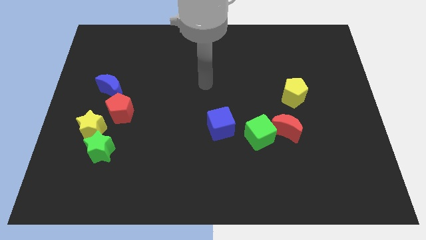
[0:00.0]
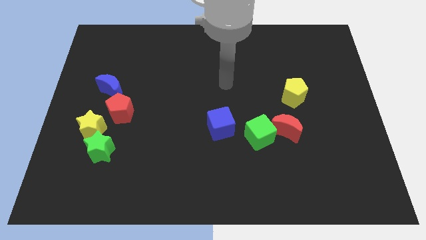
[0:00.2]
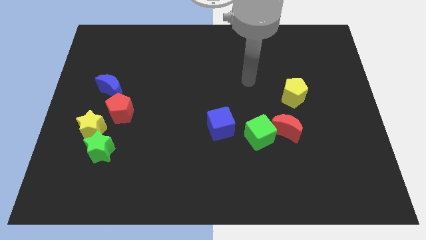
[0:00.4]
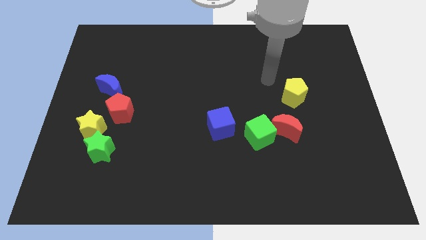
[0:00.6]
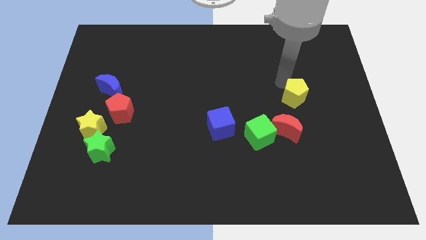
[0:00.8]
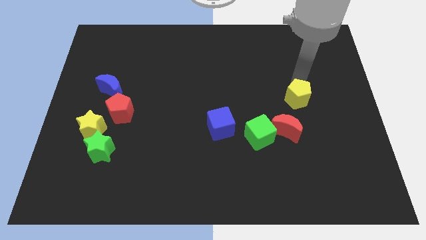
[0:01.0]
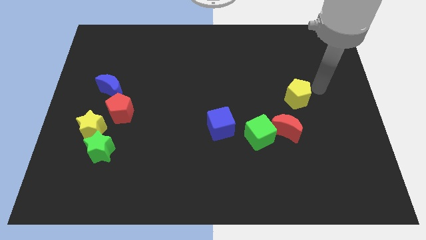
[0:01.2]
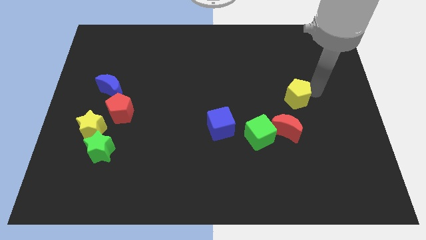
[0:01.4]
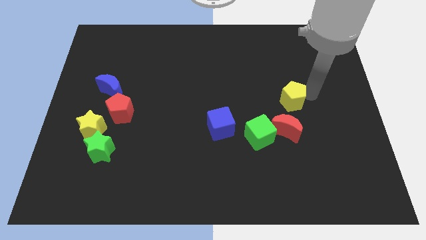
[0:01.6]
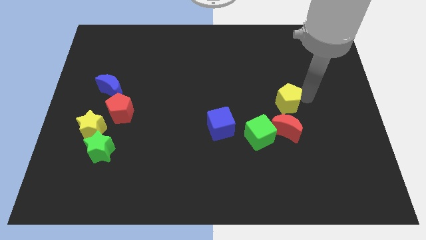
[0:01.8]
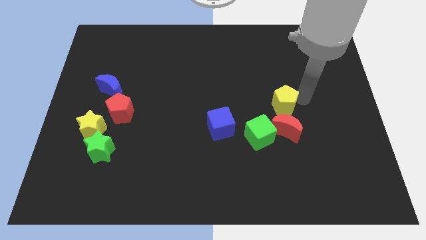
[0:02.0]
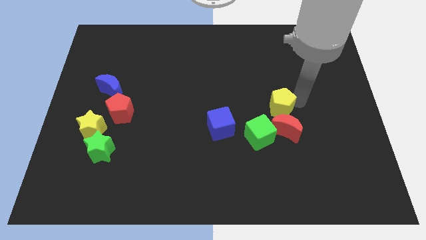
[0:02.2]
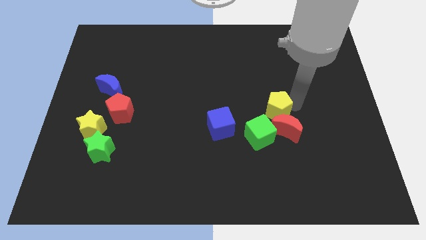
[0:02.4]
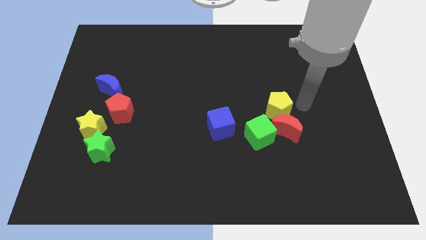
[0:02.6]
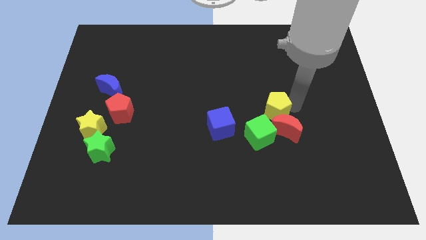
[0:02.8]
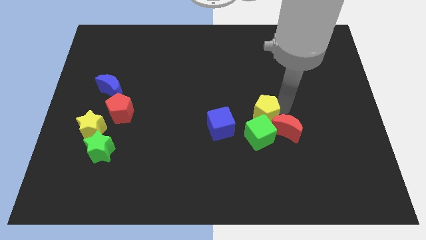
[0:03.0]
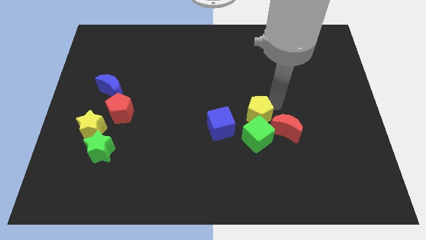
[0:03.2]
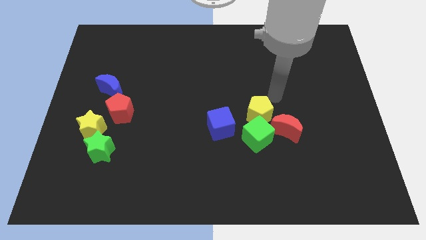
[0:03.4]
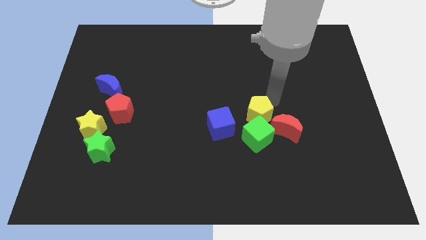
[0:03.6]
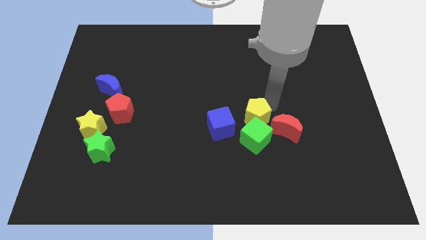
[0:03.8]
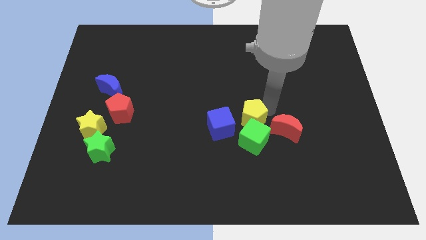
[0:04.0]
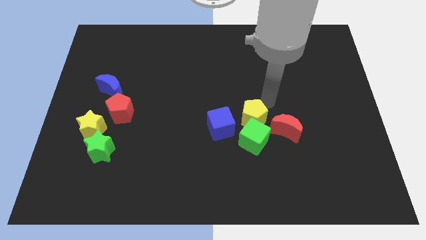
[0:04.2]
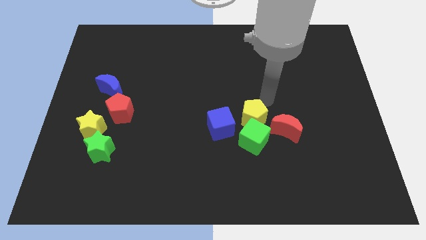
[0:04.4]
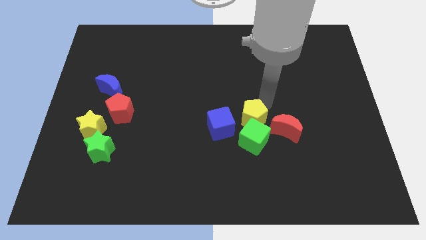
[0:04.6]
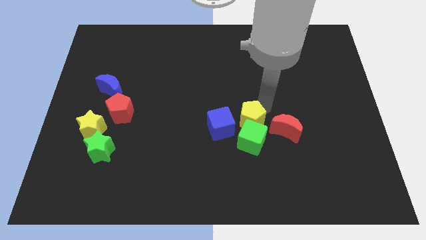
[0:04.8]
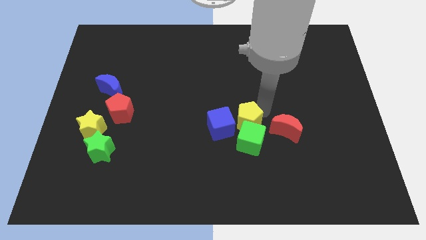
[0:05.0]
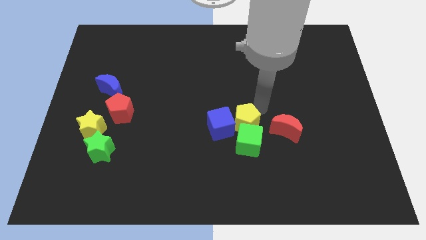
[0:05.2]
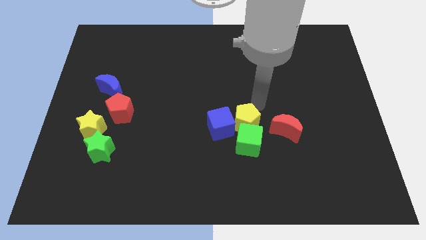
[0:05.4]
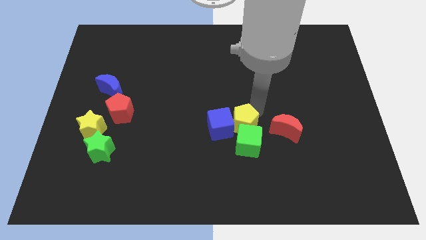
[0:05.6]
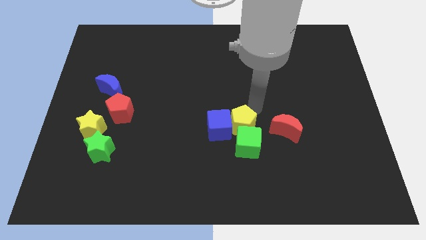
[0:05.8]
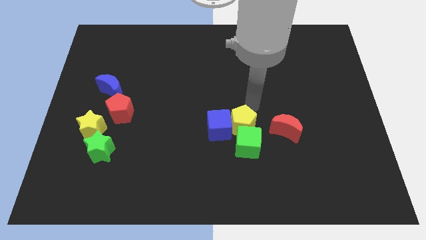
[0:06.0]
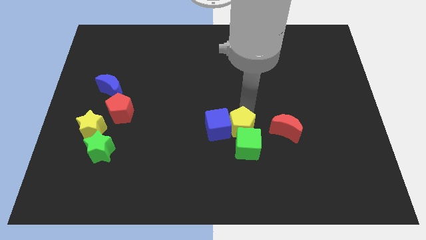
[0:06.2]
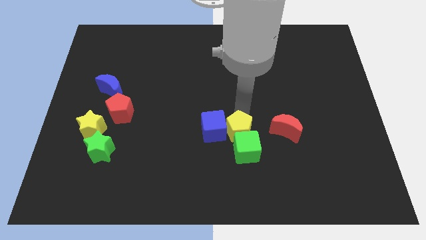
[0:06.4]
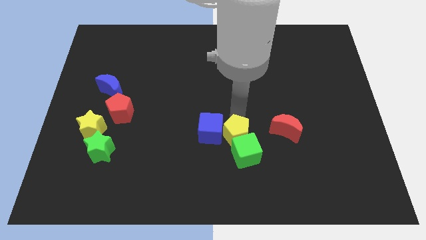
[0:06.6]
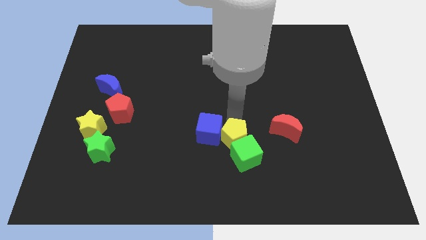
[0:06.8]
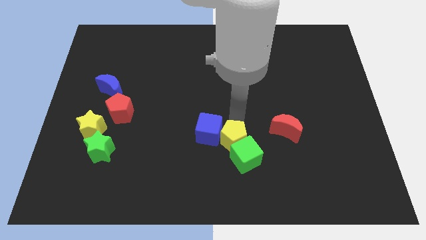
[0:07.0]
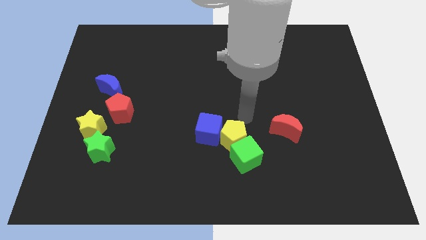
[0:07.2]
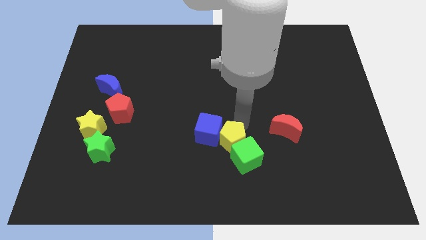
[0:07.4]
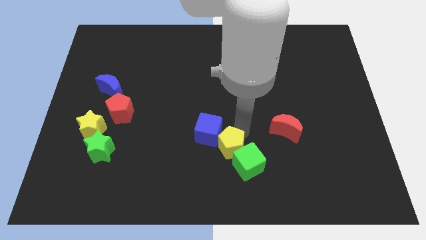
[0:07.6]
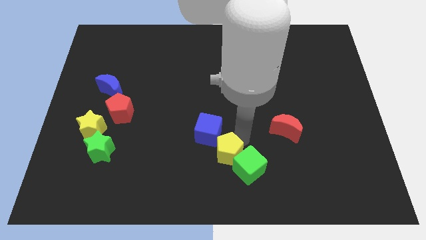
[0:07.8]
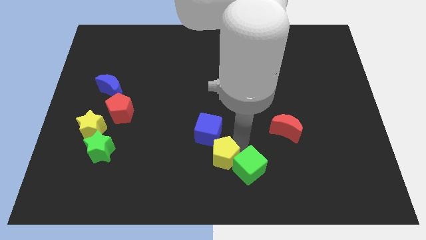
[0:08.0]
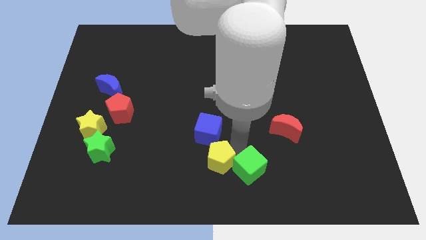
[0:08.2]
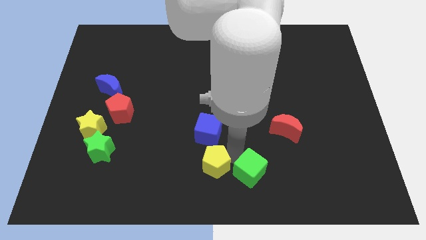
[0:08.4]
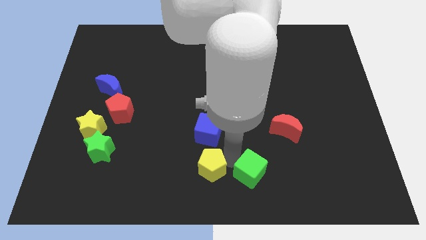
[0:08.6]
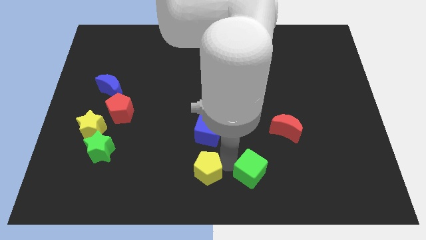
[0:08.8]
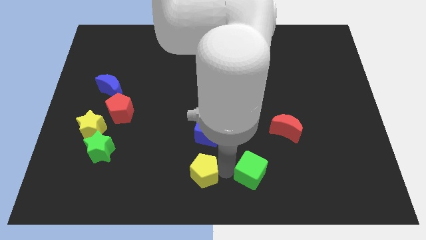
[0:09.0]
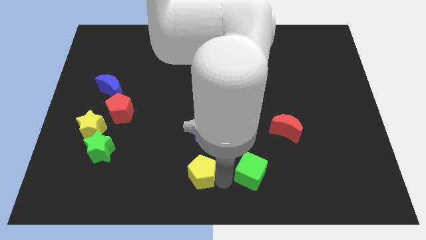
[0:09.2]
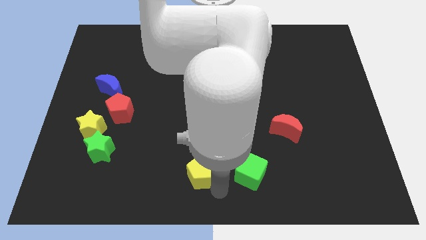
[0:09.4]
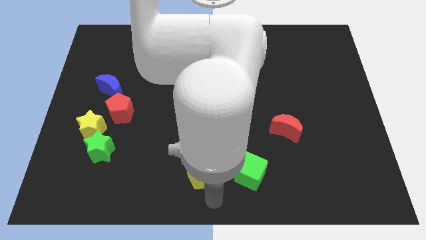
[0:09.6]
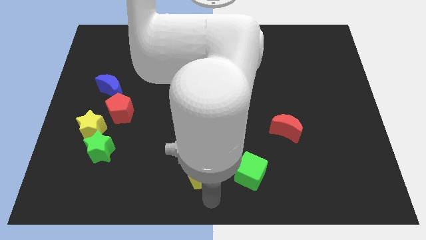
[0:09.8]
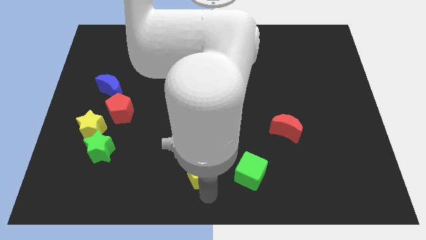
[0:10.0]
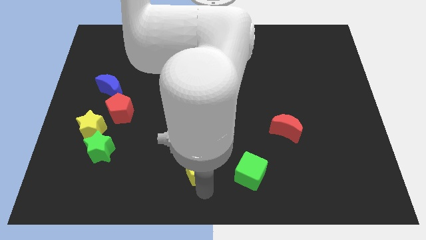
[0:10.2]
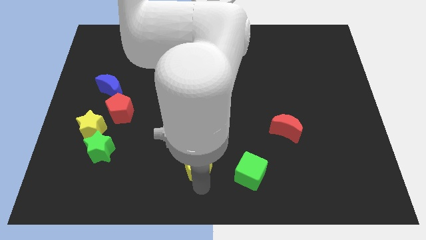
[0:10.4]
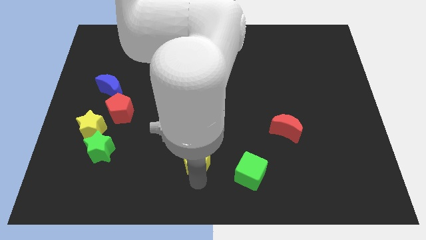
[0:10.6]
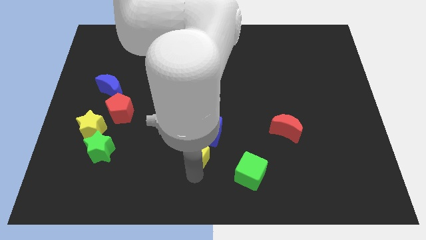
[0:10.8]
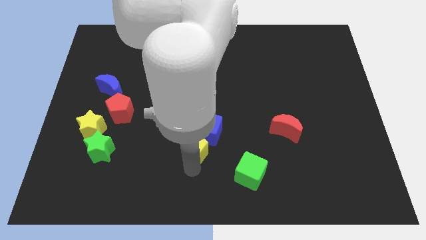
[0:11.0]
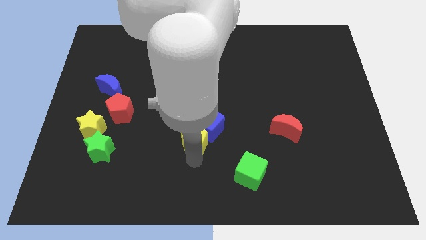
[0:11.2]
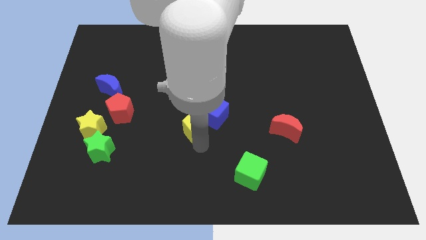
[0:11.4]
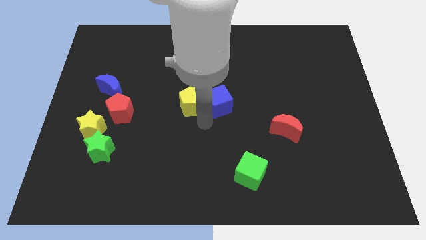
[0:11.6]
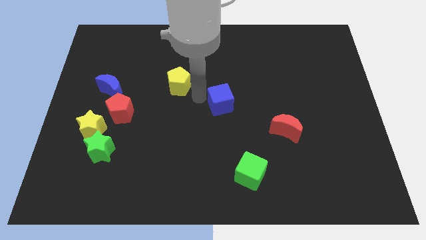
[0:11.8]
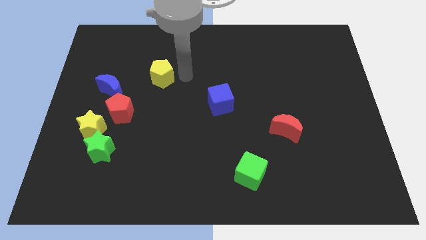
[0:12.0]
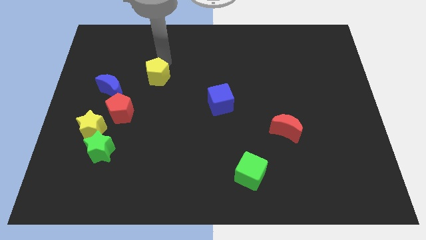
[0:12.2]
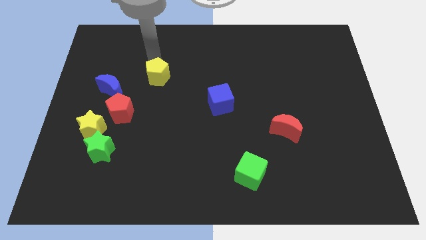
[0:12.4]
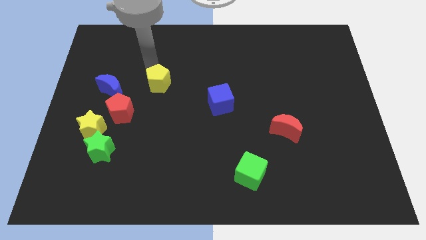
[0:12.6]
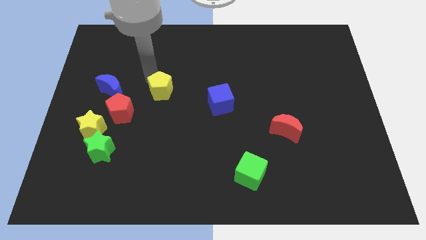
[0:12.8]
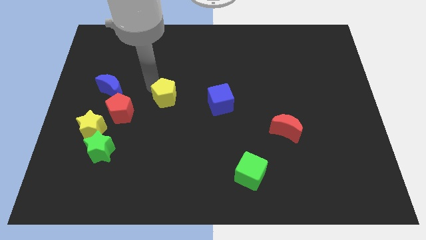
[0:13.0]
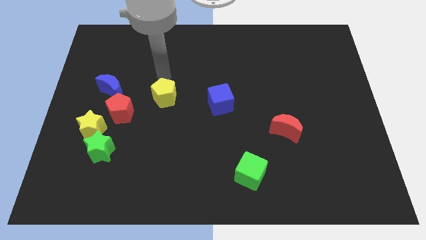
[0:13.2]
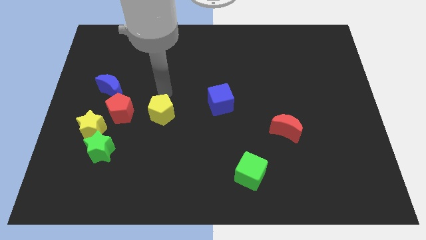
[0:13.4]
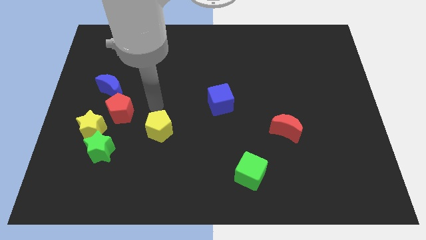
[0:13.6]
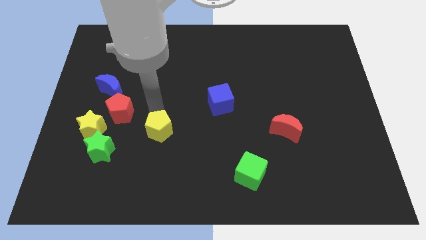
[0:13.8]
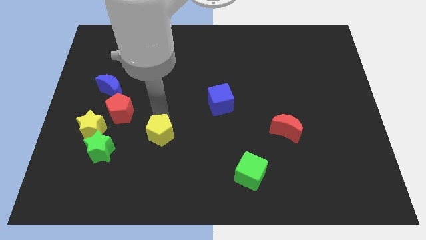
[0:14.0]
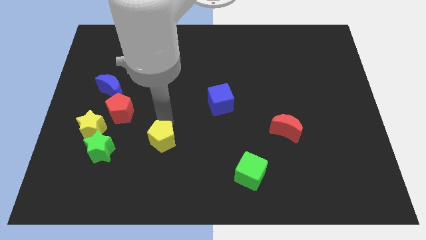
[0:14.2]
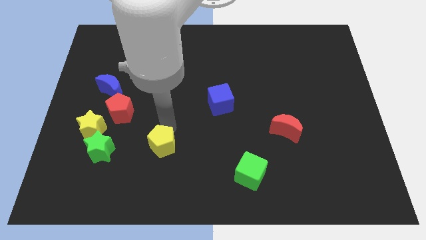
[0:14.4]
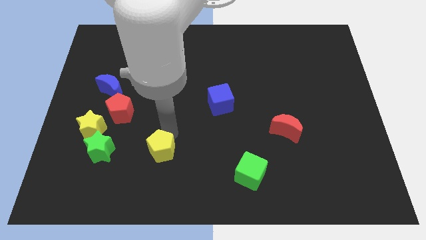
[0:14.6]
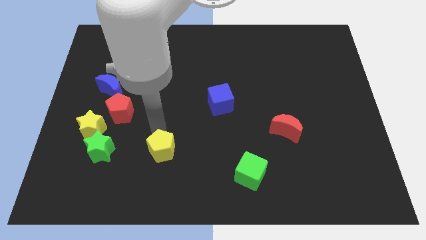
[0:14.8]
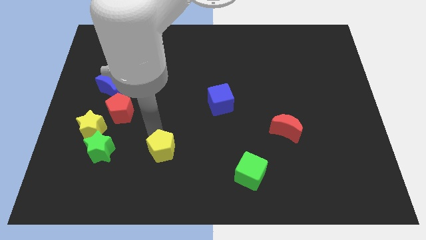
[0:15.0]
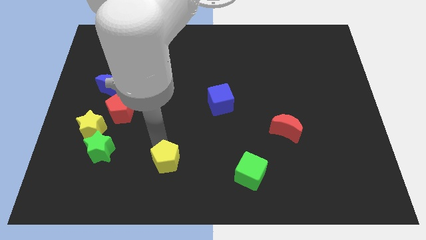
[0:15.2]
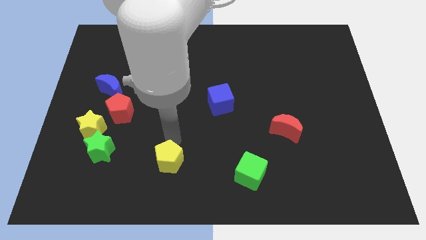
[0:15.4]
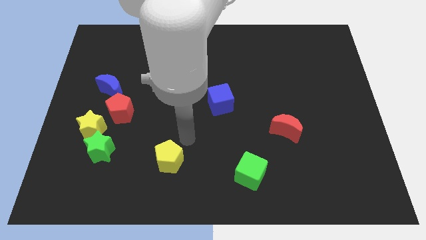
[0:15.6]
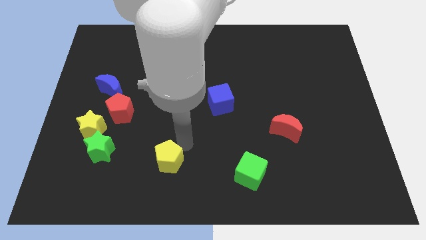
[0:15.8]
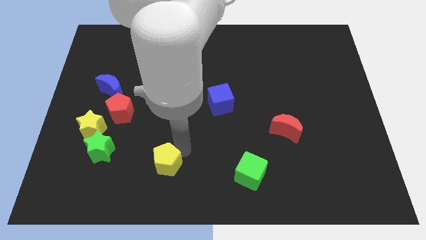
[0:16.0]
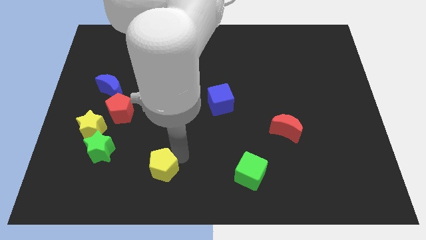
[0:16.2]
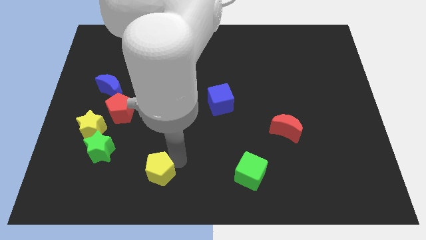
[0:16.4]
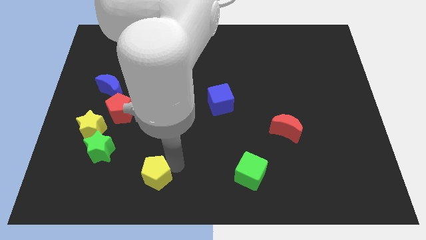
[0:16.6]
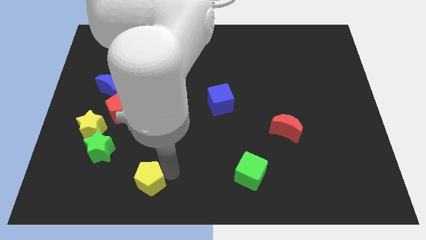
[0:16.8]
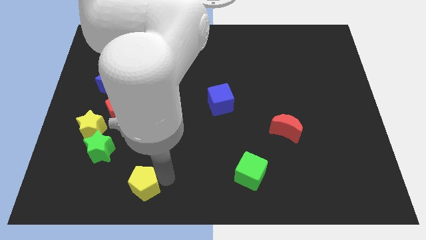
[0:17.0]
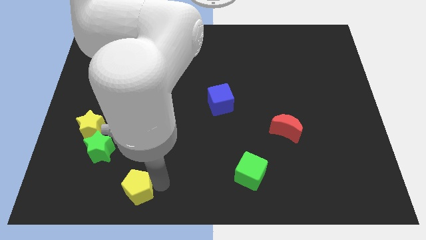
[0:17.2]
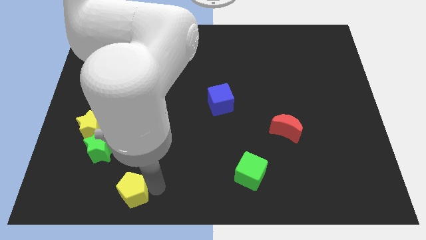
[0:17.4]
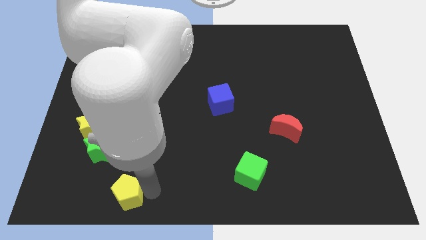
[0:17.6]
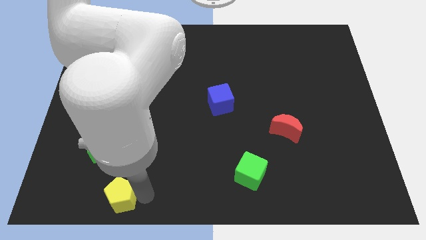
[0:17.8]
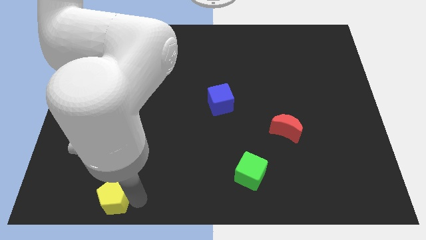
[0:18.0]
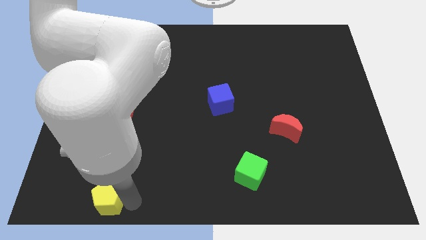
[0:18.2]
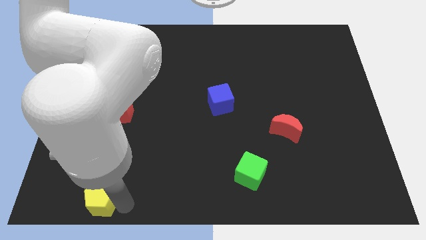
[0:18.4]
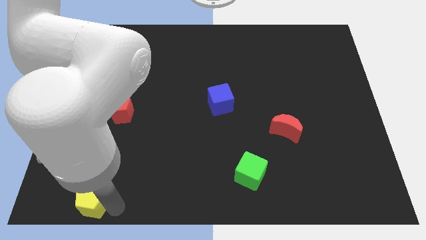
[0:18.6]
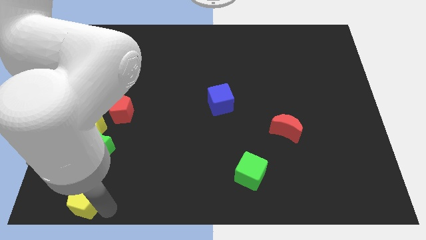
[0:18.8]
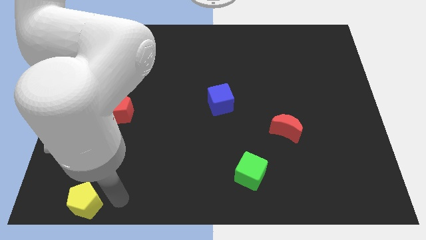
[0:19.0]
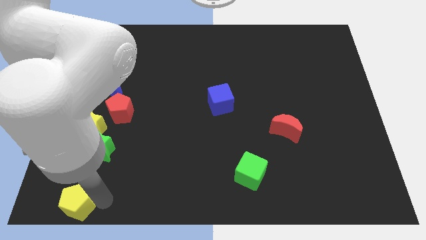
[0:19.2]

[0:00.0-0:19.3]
move the yellow pentagon to the bottom left of the board
